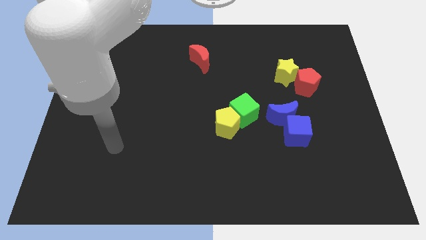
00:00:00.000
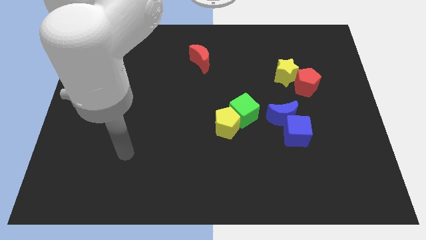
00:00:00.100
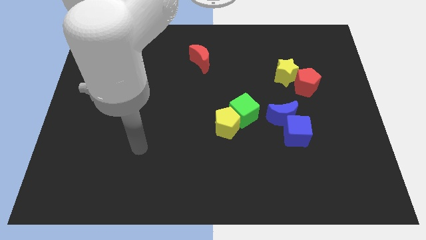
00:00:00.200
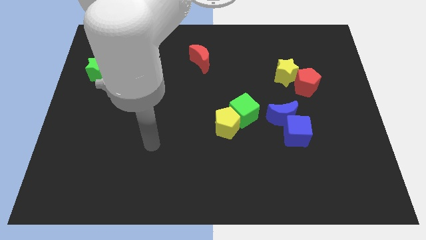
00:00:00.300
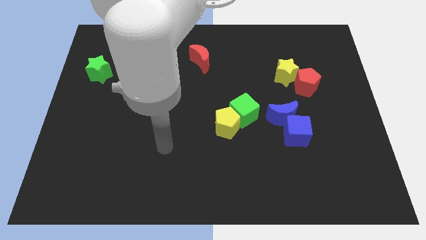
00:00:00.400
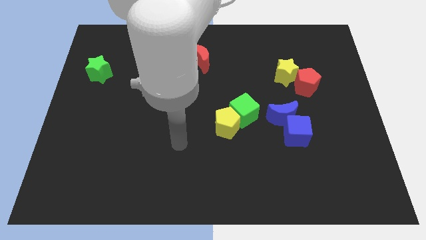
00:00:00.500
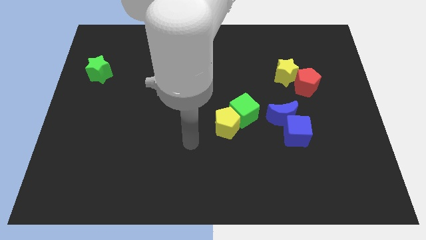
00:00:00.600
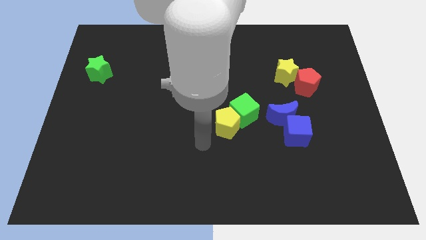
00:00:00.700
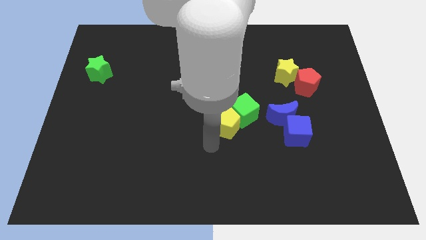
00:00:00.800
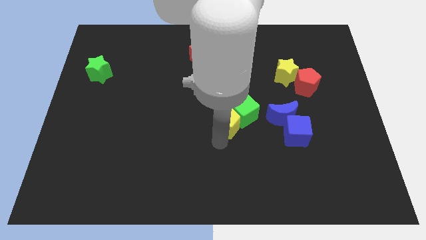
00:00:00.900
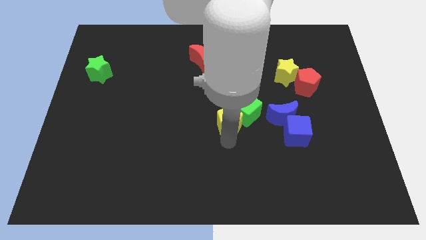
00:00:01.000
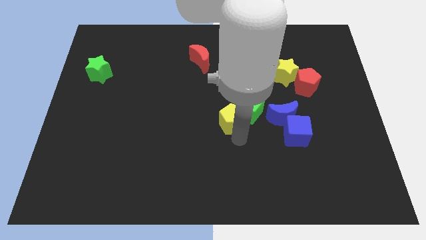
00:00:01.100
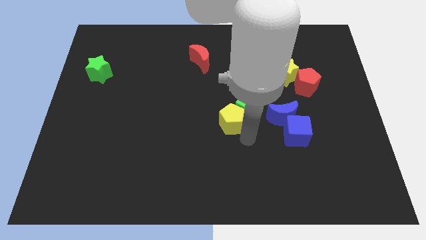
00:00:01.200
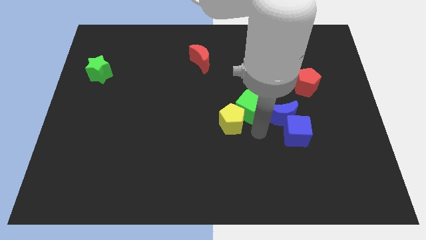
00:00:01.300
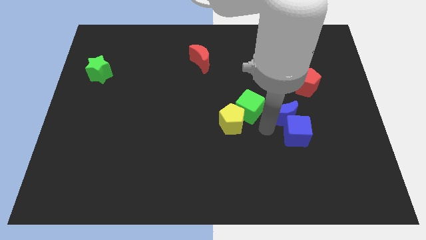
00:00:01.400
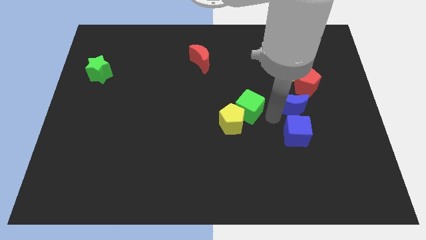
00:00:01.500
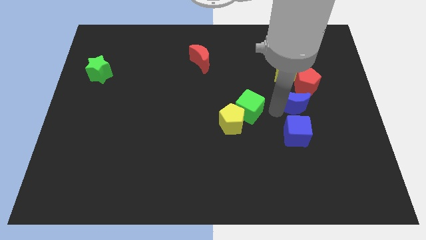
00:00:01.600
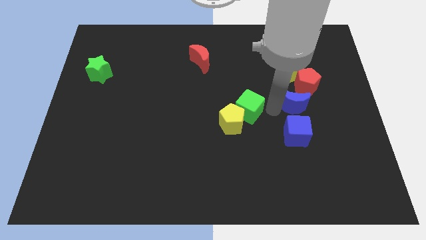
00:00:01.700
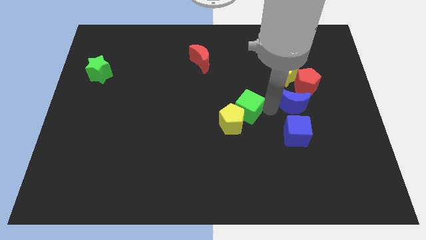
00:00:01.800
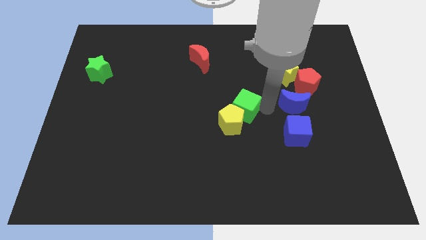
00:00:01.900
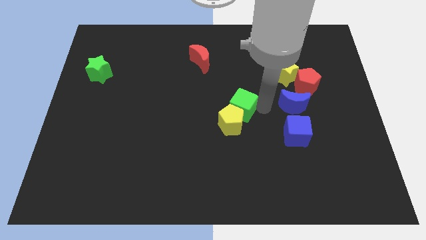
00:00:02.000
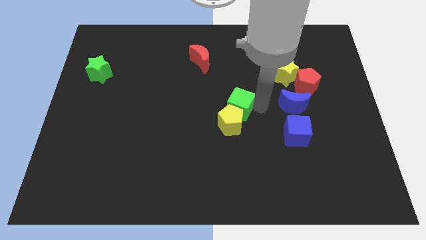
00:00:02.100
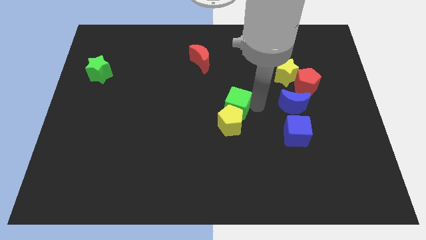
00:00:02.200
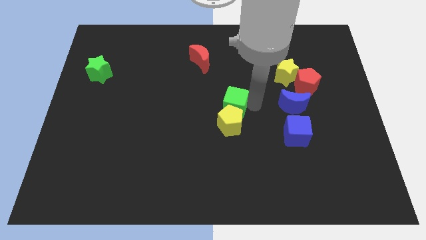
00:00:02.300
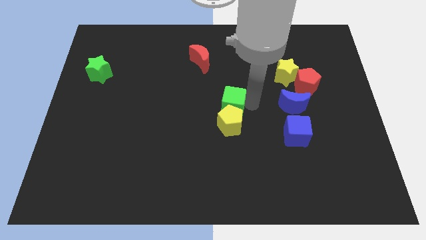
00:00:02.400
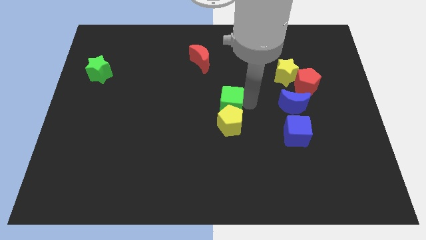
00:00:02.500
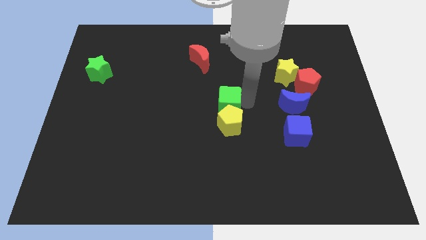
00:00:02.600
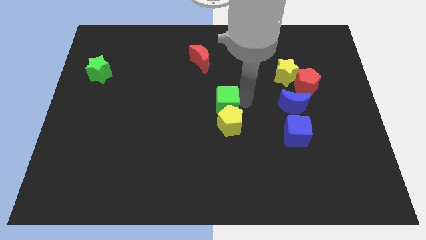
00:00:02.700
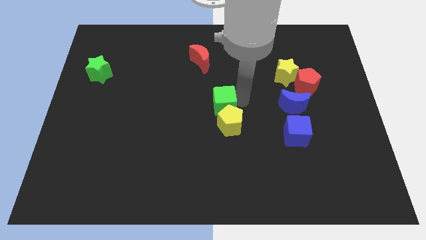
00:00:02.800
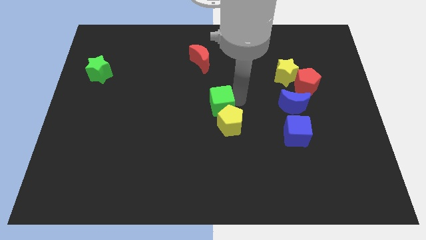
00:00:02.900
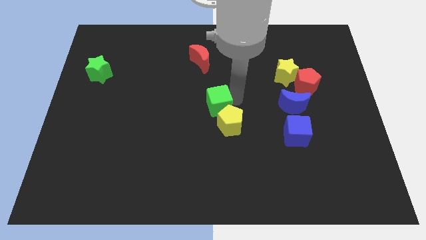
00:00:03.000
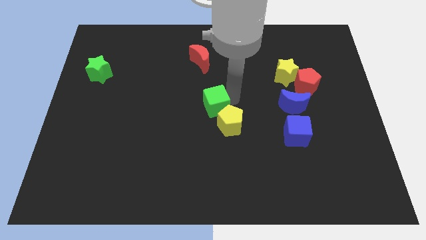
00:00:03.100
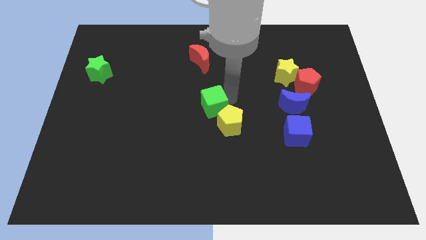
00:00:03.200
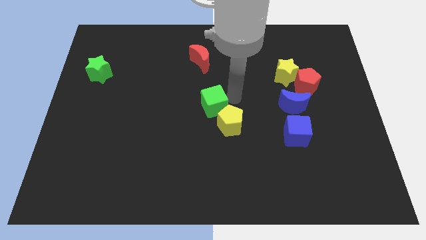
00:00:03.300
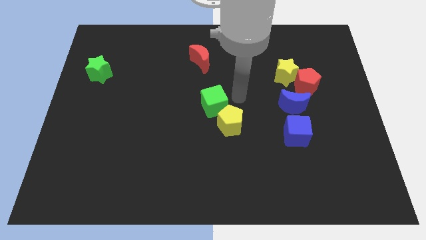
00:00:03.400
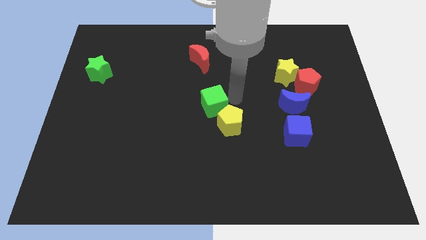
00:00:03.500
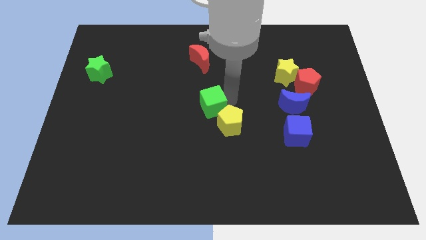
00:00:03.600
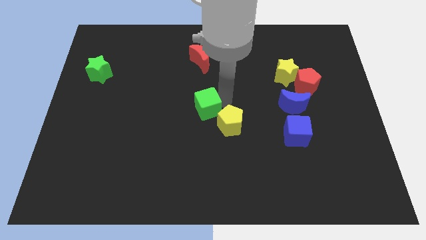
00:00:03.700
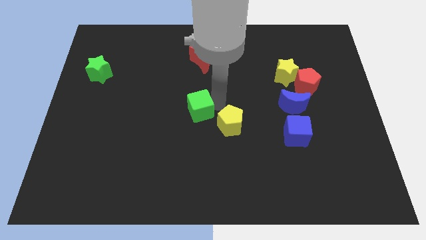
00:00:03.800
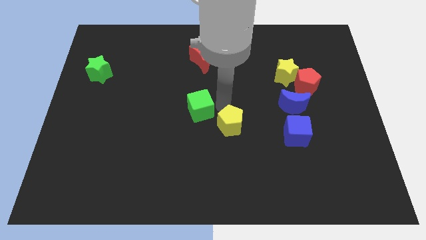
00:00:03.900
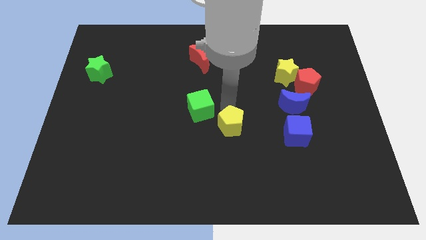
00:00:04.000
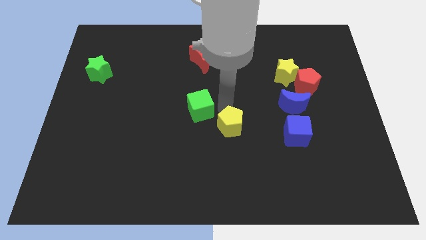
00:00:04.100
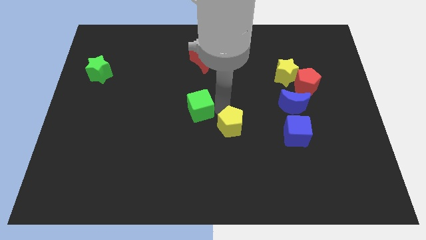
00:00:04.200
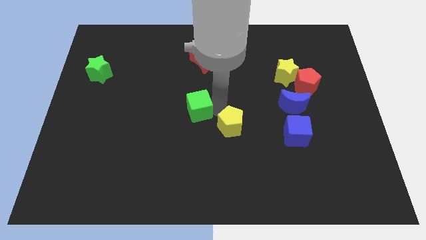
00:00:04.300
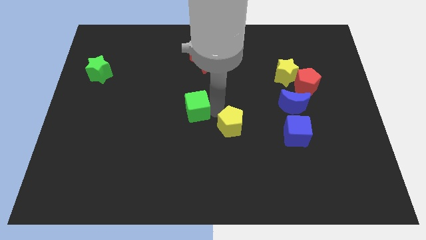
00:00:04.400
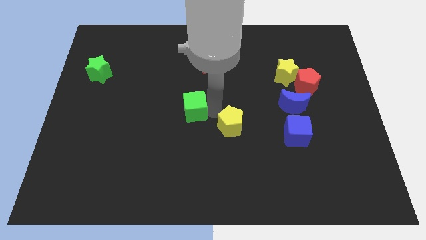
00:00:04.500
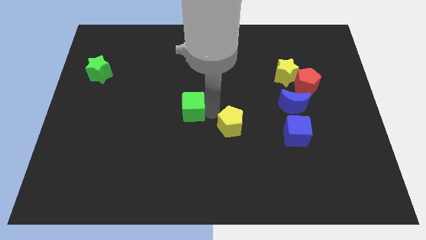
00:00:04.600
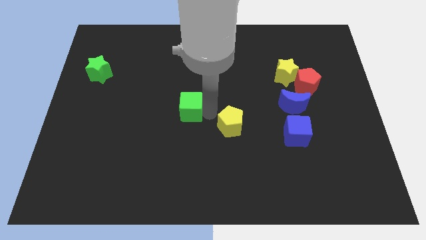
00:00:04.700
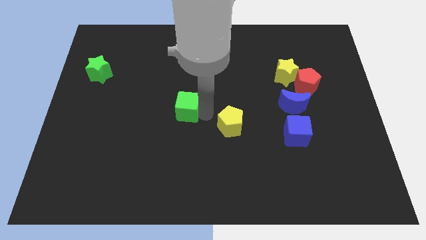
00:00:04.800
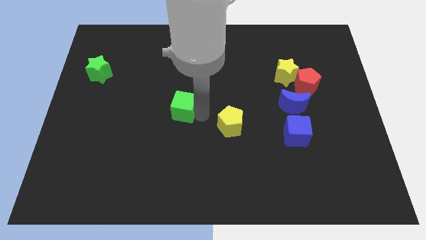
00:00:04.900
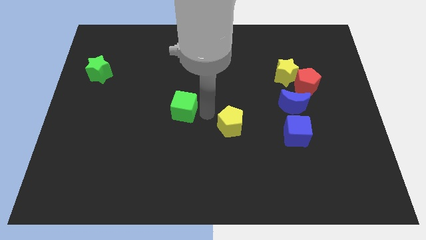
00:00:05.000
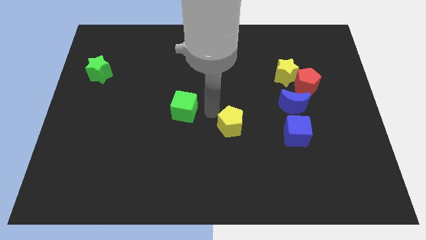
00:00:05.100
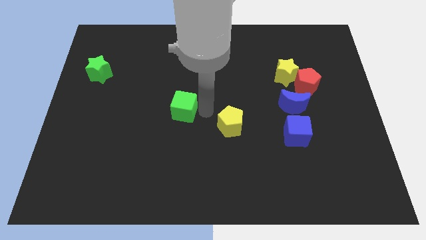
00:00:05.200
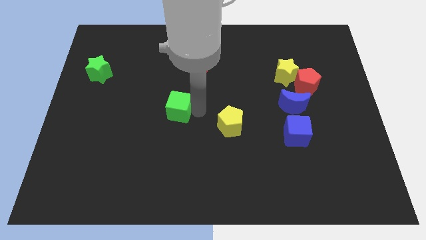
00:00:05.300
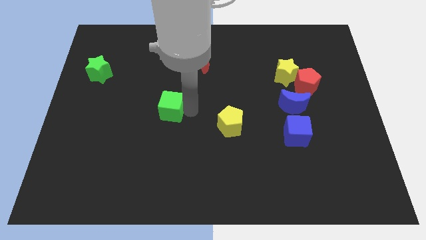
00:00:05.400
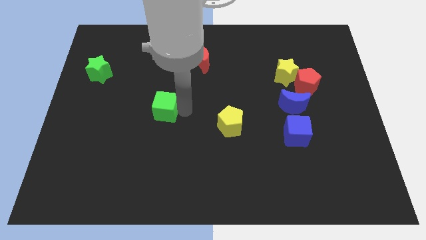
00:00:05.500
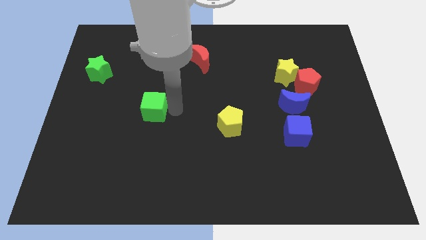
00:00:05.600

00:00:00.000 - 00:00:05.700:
push the green cube left

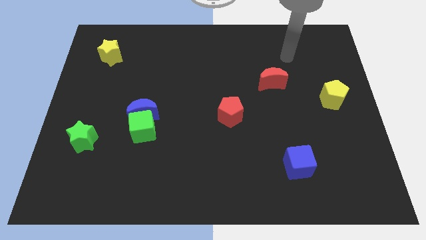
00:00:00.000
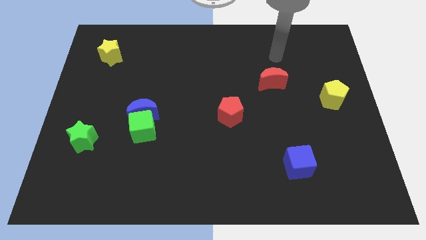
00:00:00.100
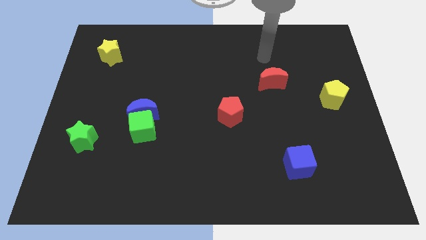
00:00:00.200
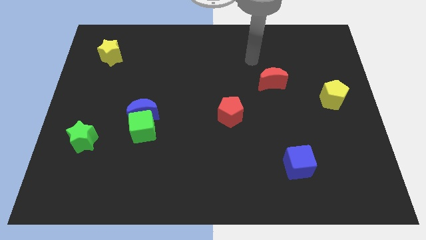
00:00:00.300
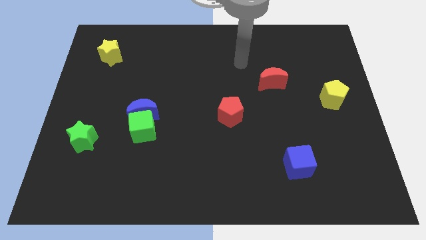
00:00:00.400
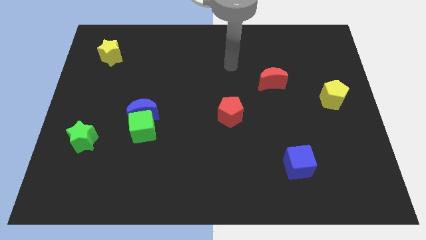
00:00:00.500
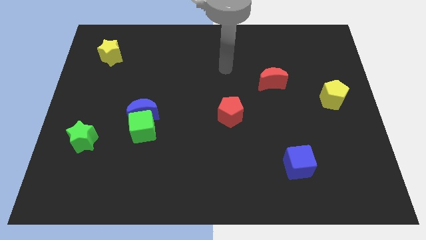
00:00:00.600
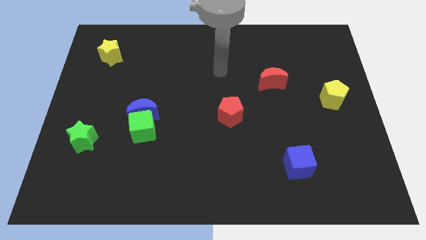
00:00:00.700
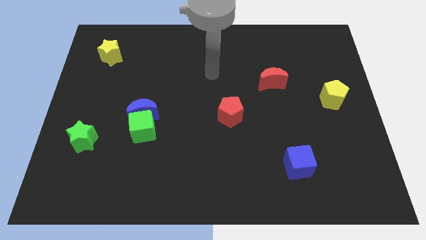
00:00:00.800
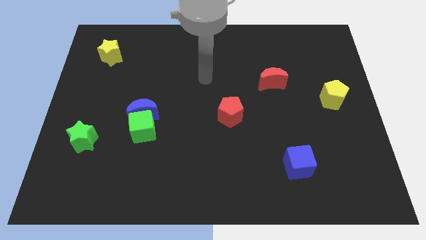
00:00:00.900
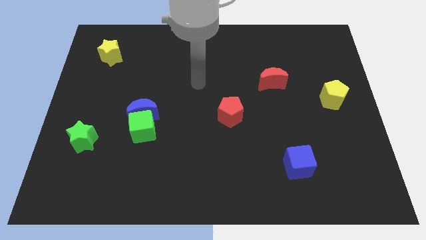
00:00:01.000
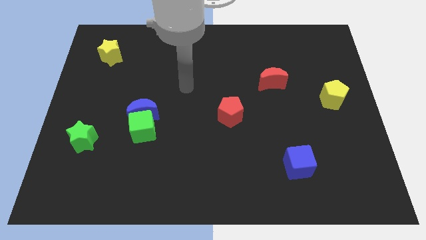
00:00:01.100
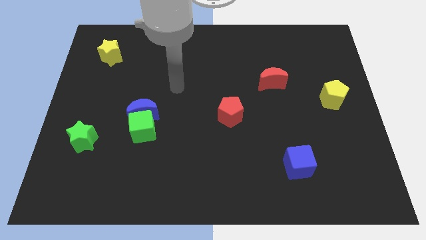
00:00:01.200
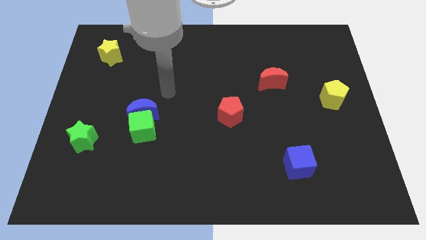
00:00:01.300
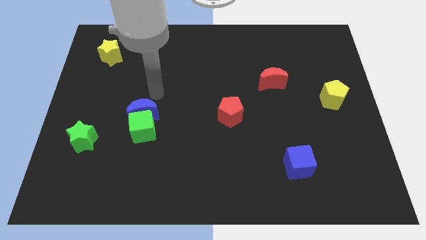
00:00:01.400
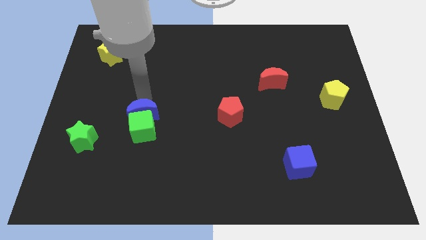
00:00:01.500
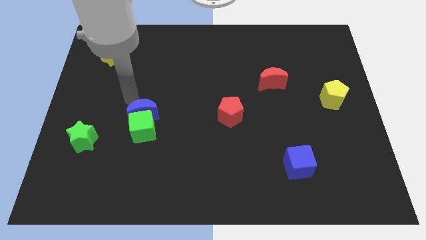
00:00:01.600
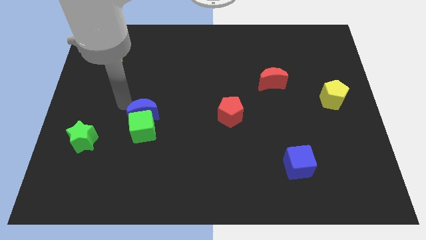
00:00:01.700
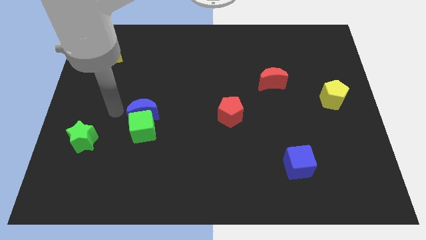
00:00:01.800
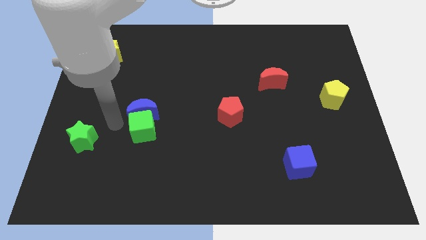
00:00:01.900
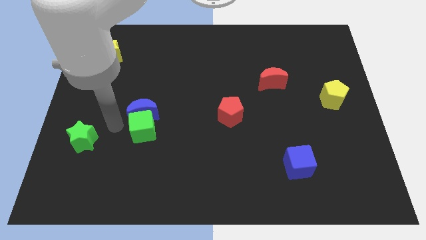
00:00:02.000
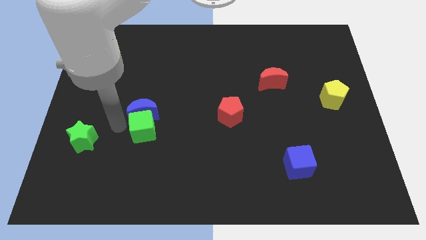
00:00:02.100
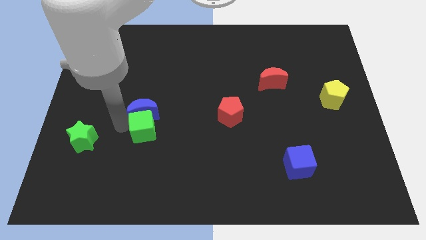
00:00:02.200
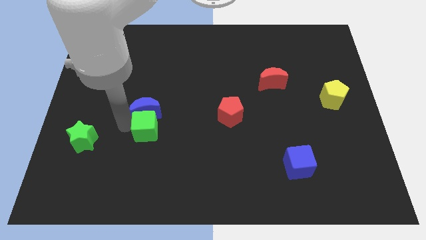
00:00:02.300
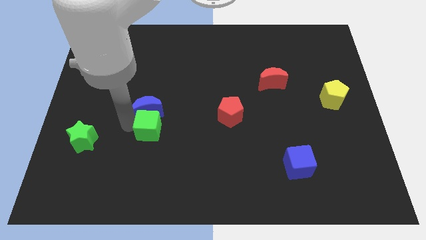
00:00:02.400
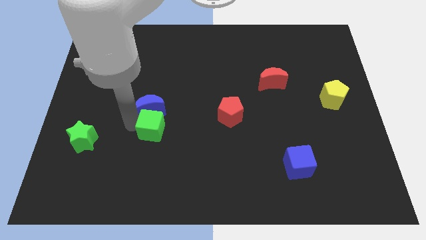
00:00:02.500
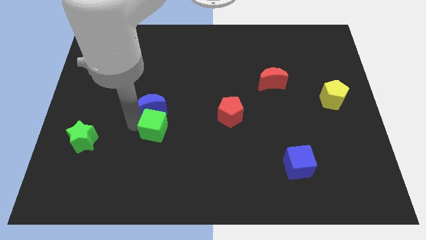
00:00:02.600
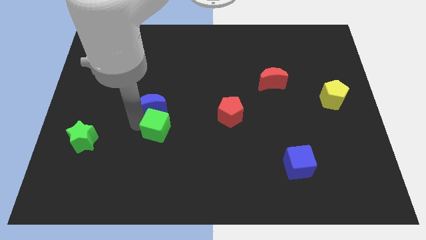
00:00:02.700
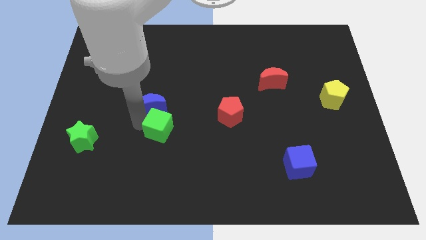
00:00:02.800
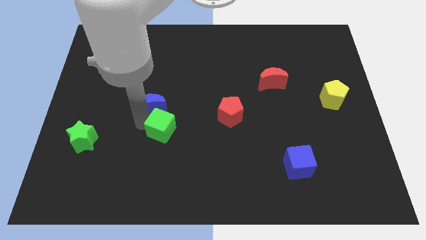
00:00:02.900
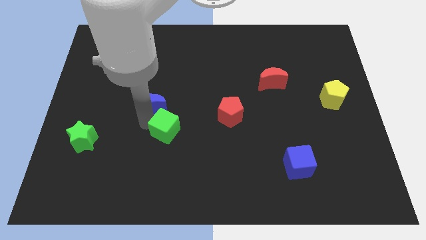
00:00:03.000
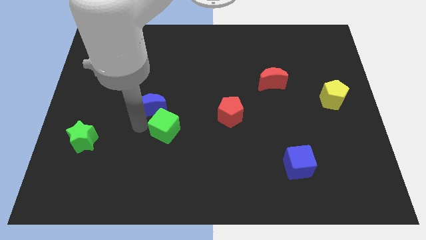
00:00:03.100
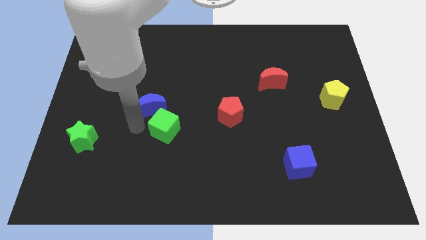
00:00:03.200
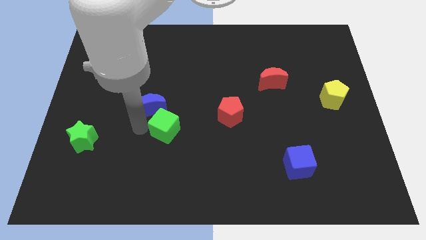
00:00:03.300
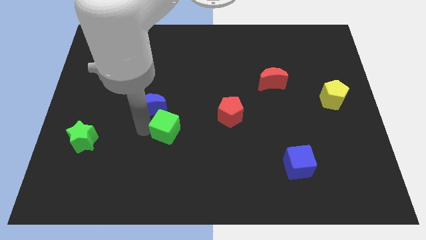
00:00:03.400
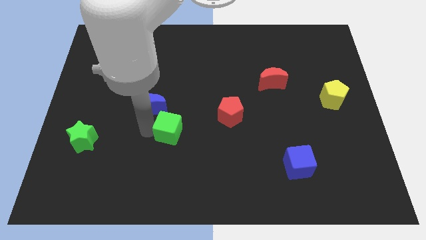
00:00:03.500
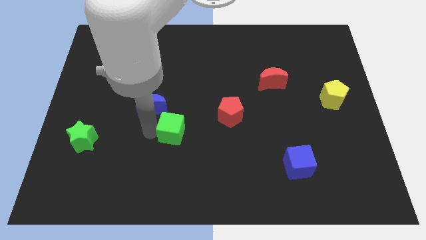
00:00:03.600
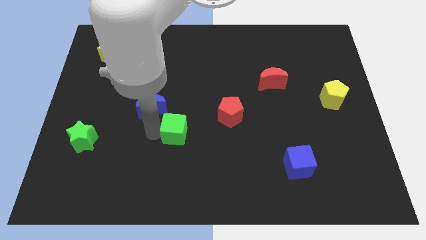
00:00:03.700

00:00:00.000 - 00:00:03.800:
move the green cube to the right a bit
